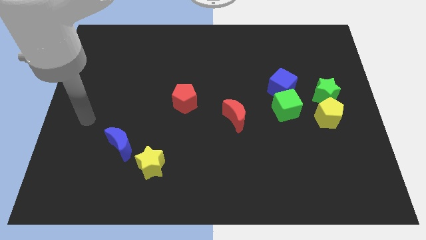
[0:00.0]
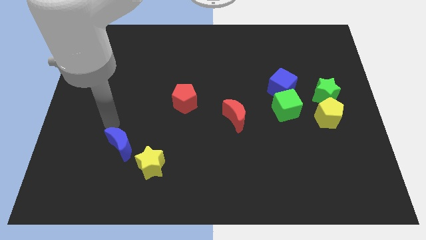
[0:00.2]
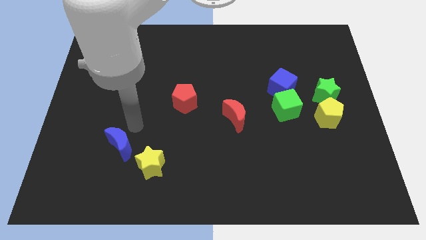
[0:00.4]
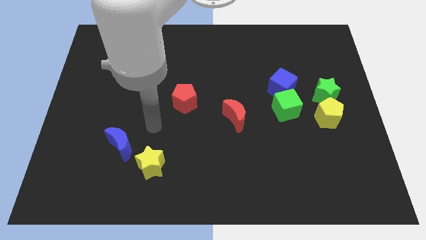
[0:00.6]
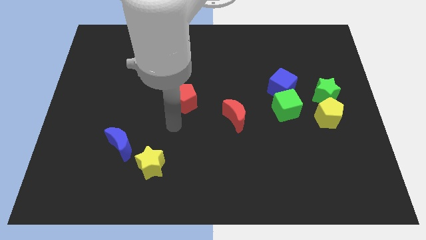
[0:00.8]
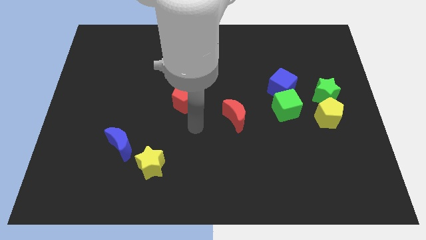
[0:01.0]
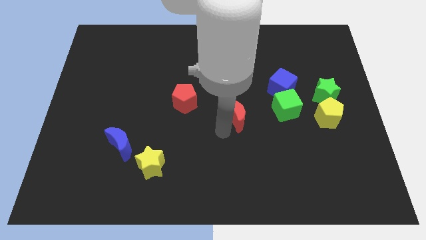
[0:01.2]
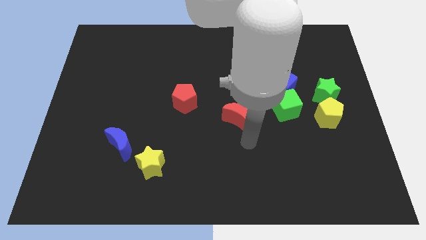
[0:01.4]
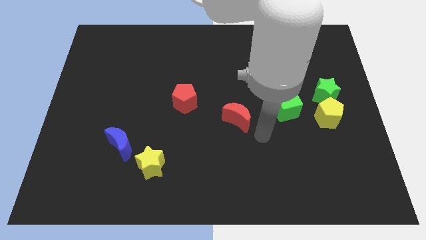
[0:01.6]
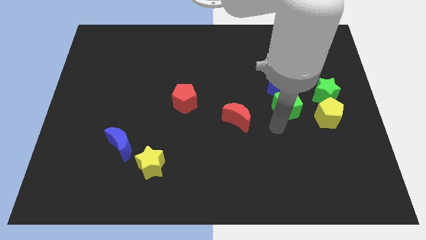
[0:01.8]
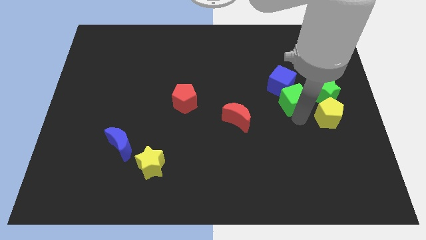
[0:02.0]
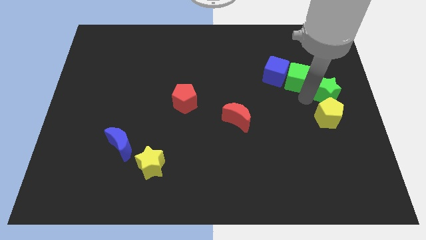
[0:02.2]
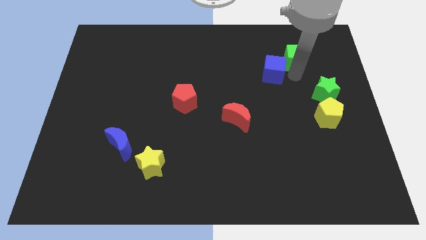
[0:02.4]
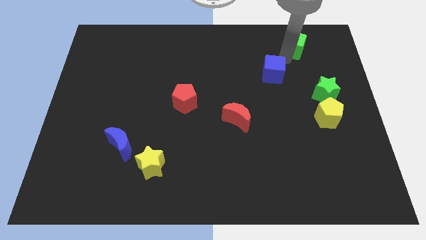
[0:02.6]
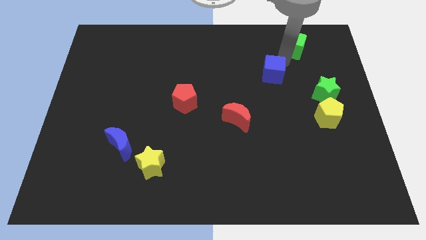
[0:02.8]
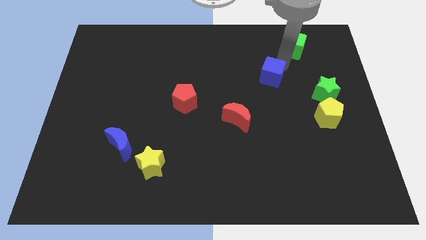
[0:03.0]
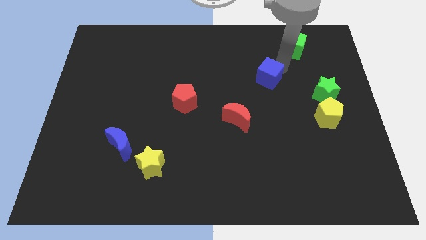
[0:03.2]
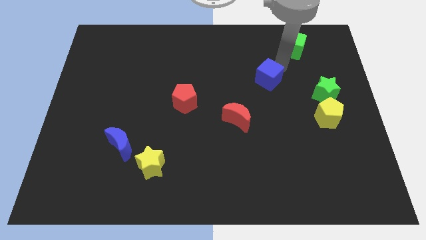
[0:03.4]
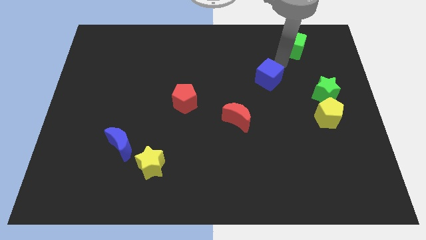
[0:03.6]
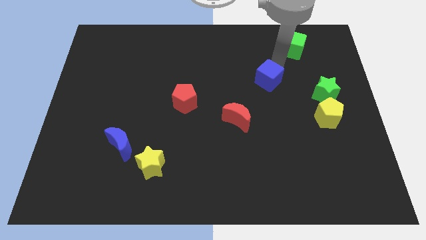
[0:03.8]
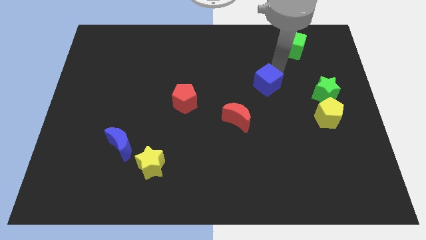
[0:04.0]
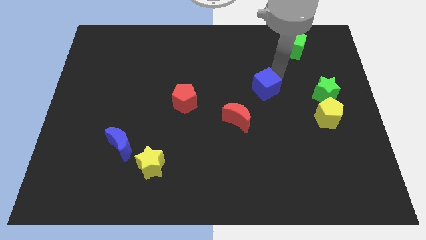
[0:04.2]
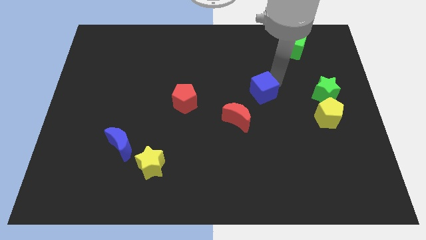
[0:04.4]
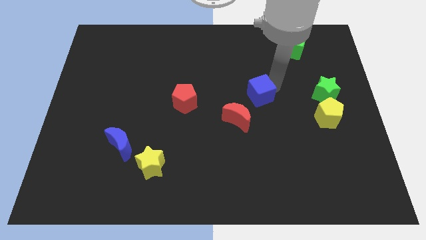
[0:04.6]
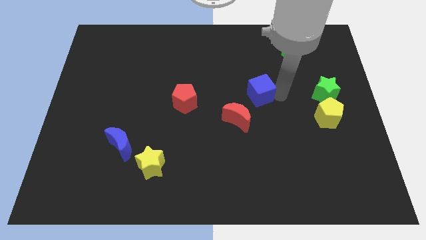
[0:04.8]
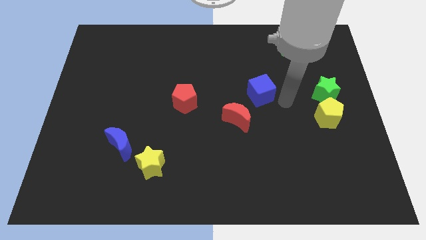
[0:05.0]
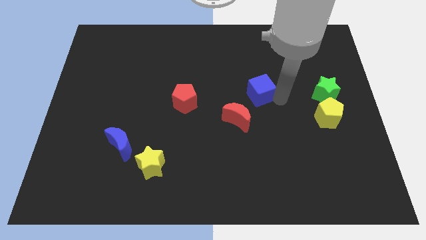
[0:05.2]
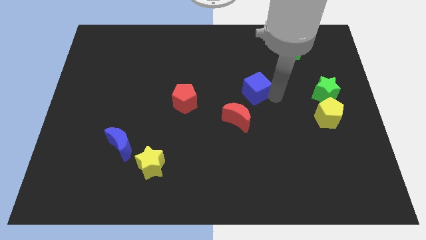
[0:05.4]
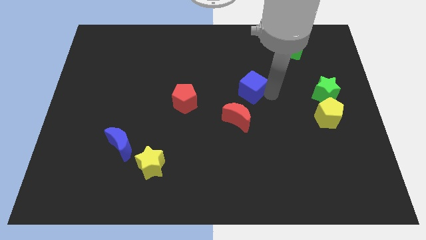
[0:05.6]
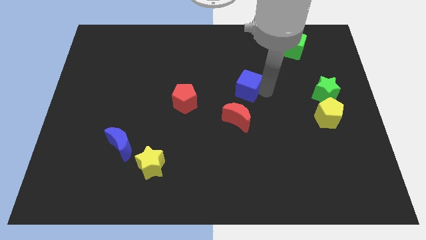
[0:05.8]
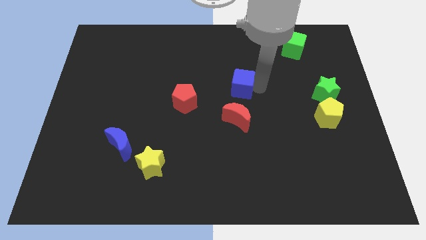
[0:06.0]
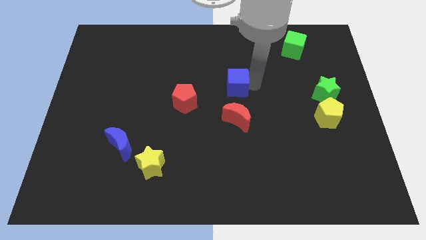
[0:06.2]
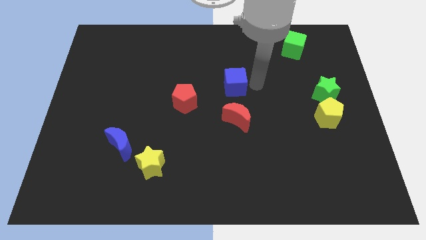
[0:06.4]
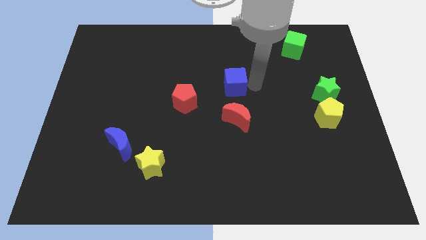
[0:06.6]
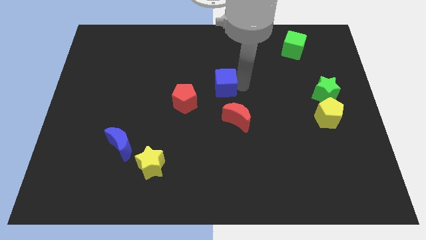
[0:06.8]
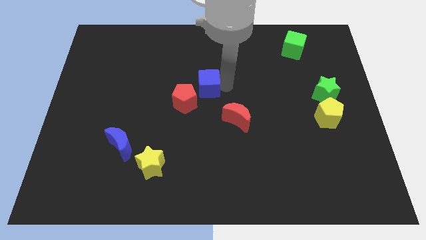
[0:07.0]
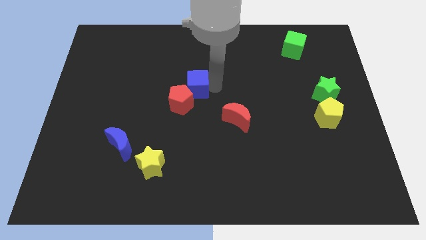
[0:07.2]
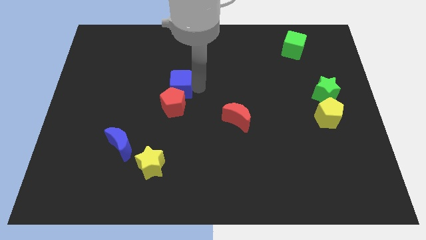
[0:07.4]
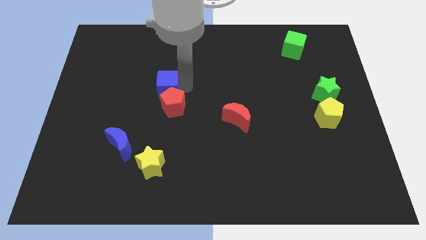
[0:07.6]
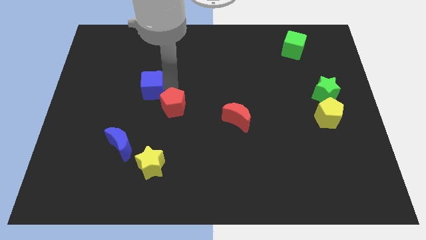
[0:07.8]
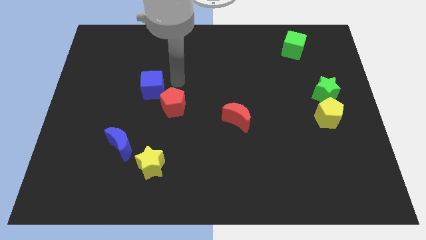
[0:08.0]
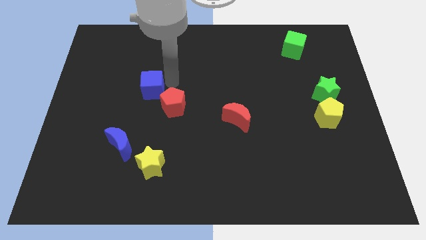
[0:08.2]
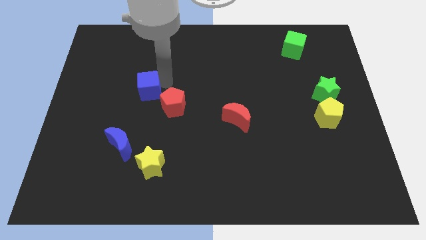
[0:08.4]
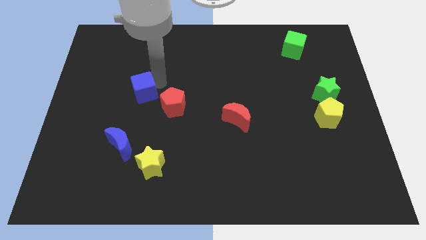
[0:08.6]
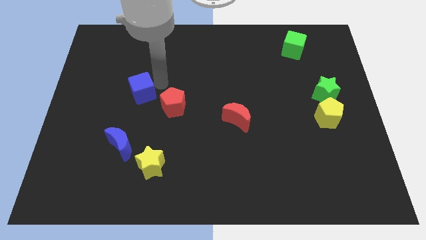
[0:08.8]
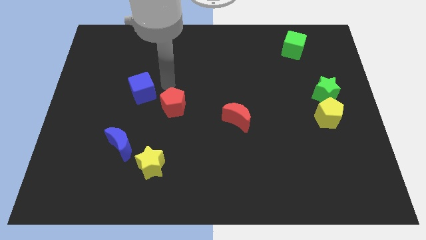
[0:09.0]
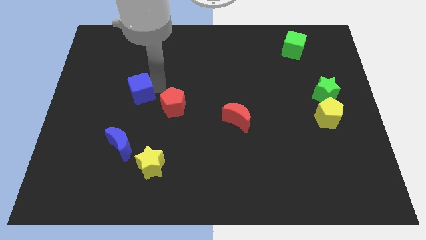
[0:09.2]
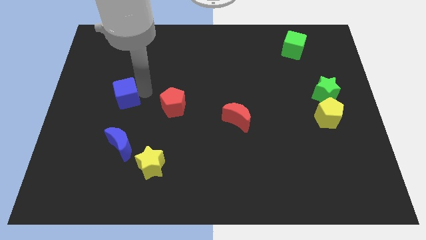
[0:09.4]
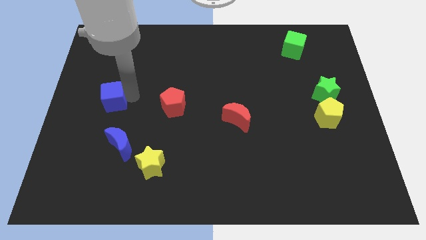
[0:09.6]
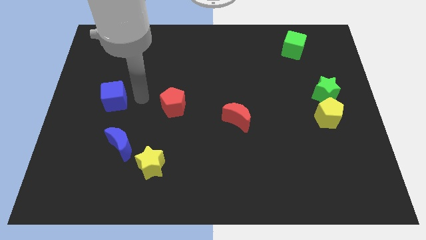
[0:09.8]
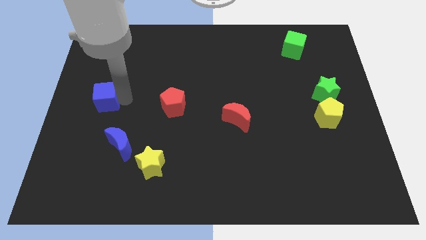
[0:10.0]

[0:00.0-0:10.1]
put the blue cube to the left side

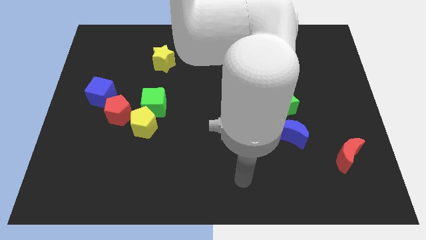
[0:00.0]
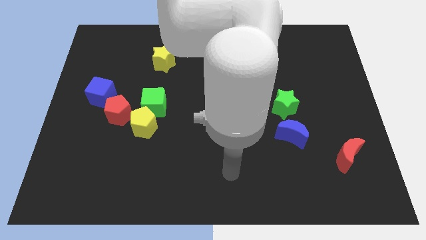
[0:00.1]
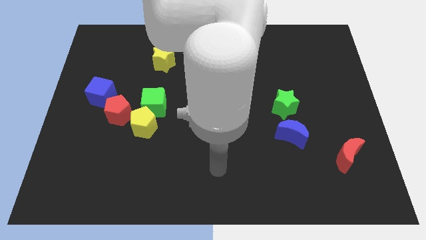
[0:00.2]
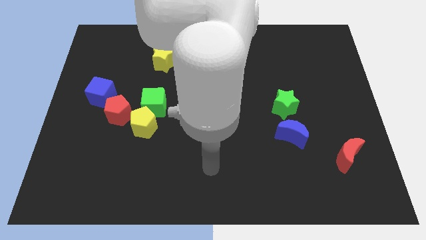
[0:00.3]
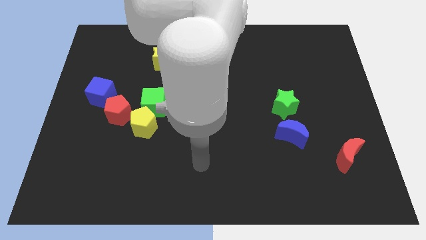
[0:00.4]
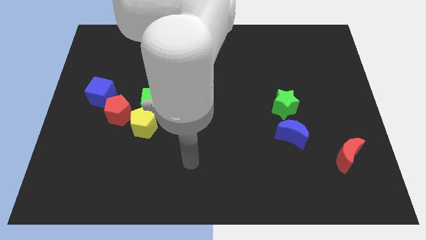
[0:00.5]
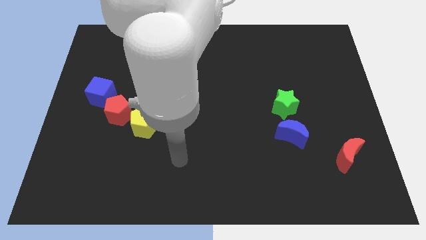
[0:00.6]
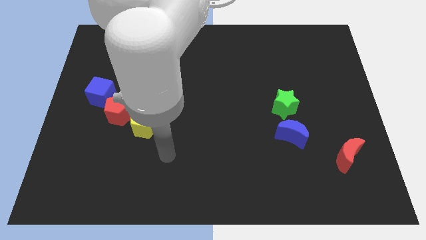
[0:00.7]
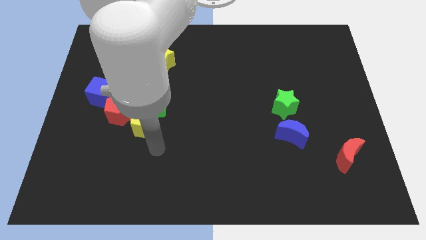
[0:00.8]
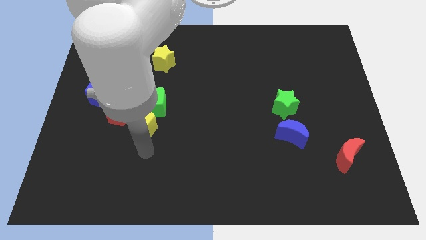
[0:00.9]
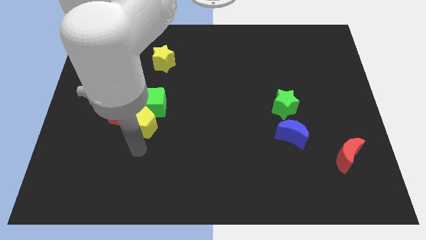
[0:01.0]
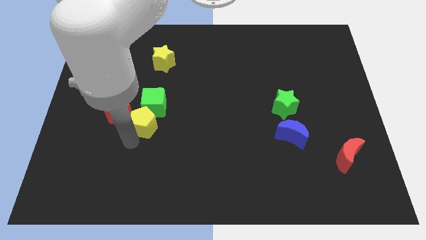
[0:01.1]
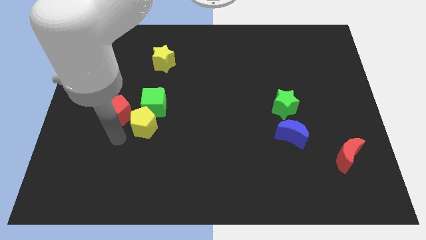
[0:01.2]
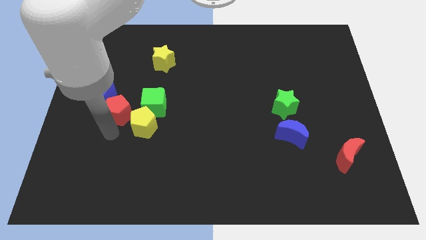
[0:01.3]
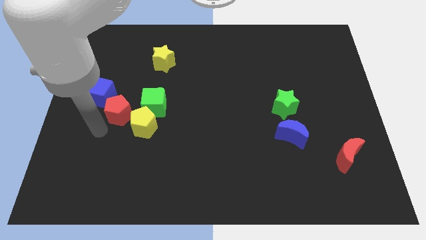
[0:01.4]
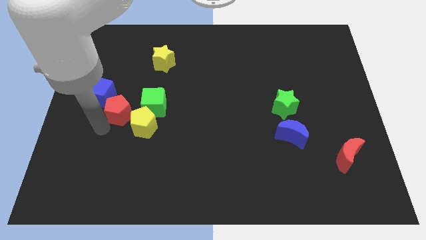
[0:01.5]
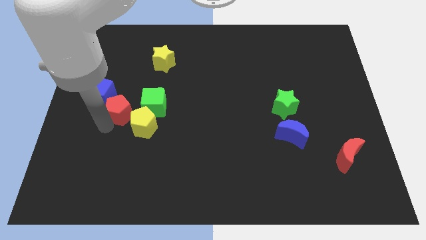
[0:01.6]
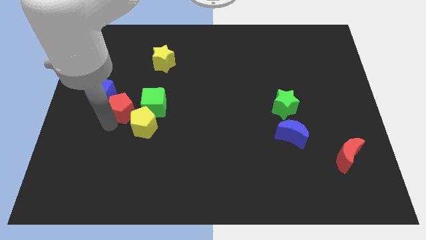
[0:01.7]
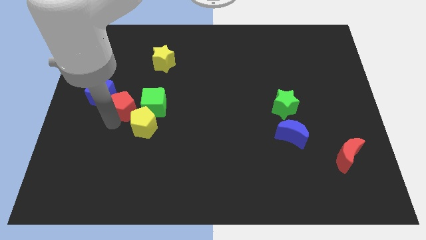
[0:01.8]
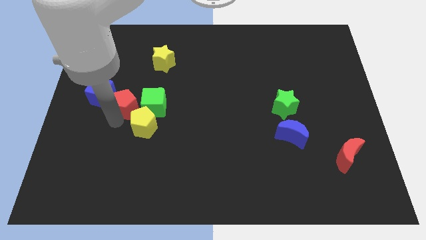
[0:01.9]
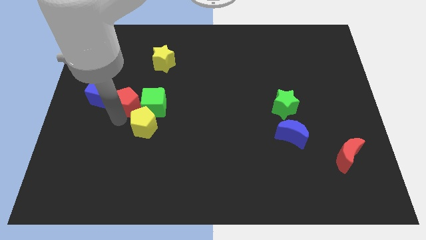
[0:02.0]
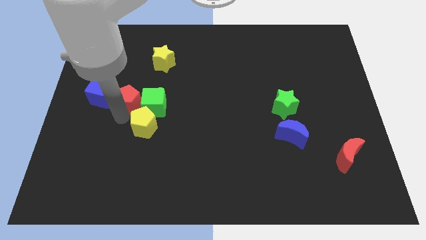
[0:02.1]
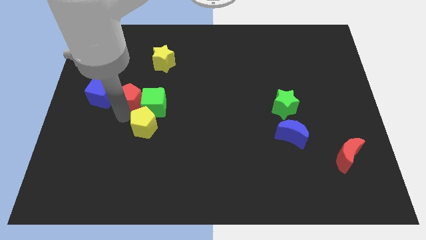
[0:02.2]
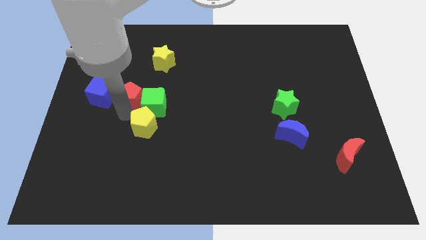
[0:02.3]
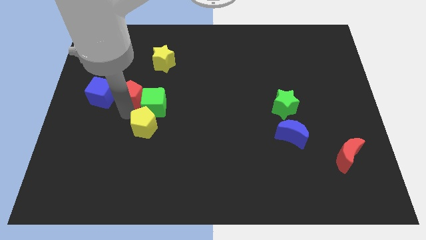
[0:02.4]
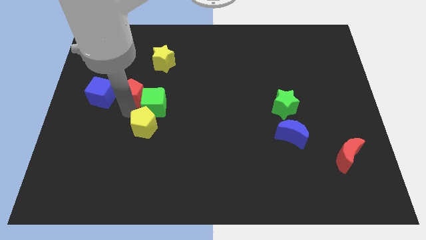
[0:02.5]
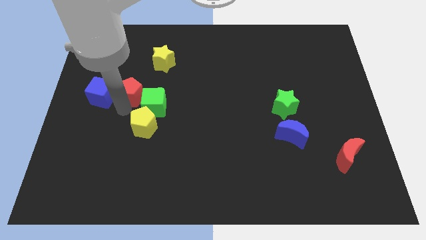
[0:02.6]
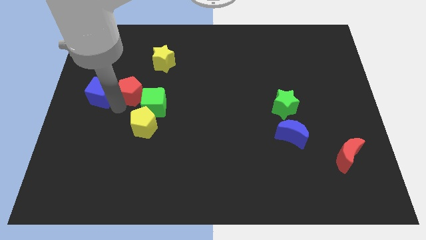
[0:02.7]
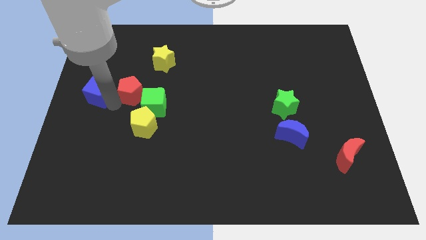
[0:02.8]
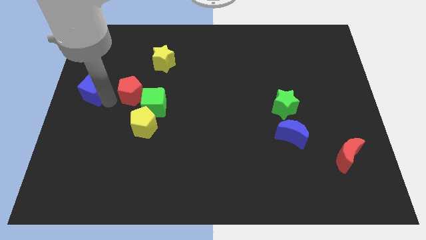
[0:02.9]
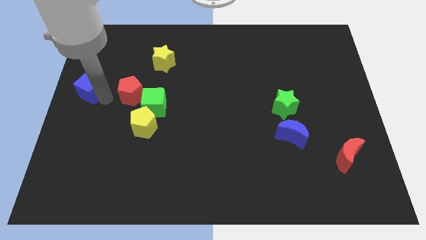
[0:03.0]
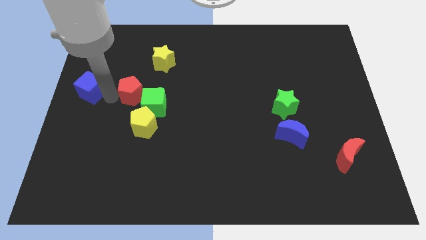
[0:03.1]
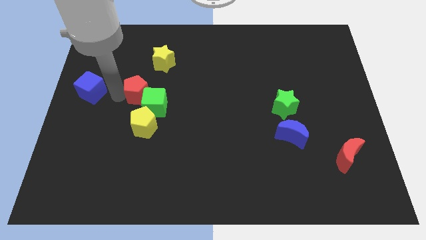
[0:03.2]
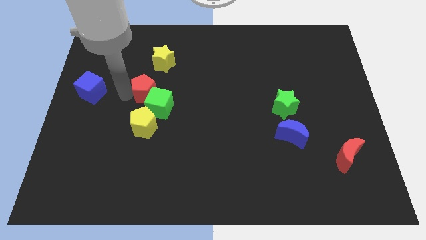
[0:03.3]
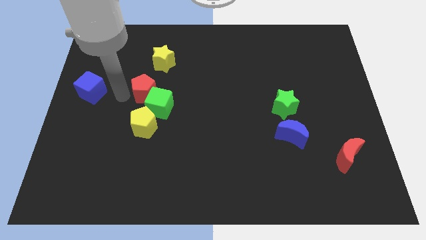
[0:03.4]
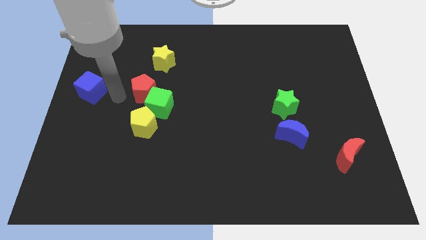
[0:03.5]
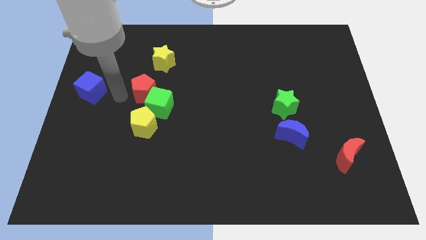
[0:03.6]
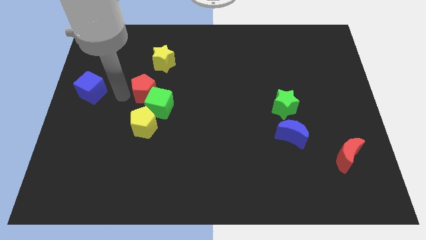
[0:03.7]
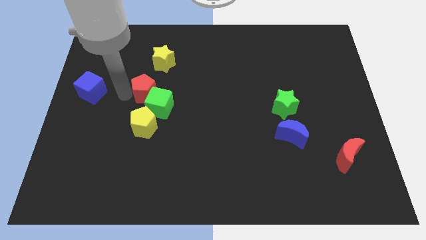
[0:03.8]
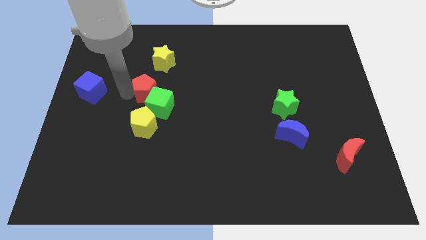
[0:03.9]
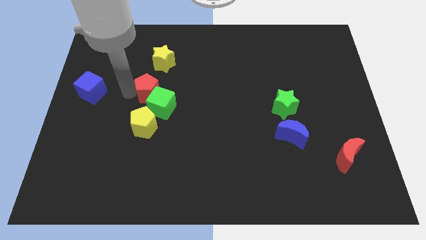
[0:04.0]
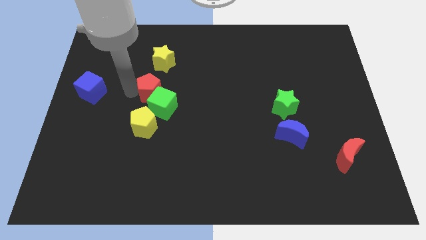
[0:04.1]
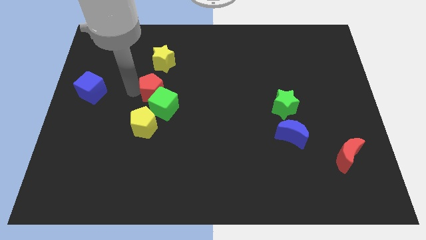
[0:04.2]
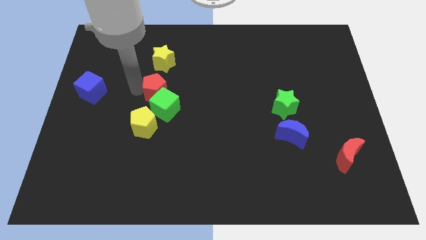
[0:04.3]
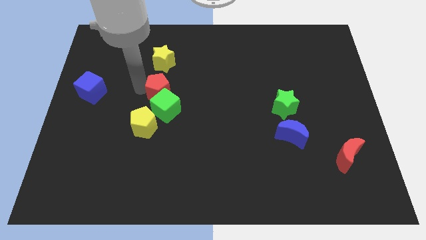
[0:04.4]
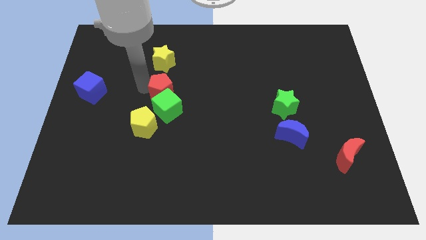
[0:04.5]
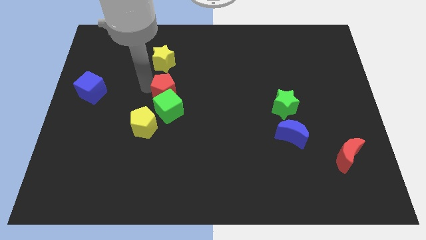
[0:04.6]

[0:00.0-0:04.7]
put the red pentagon to the middle of the board
